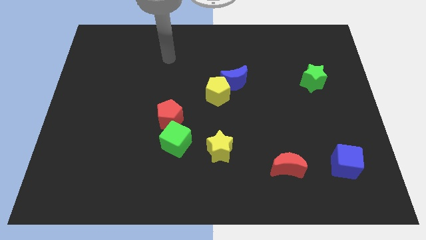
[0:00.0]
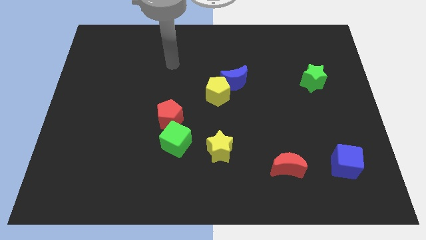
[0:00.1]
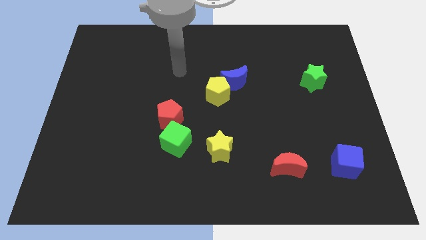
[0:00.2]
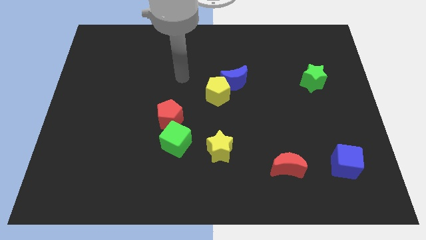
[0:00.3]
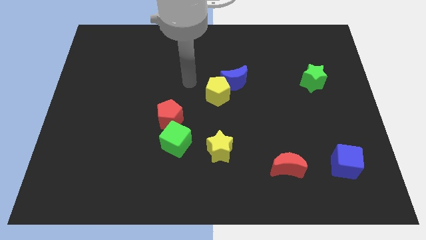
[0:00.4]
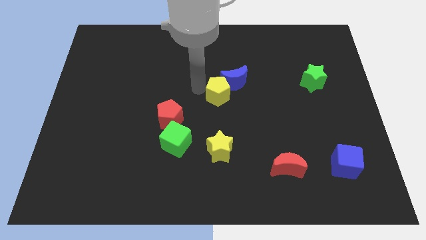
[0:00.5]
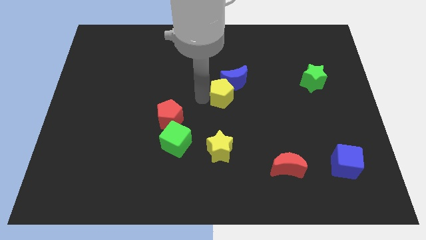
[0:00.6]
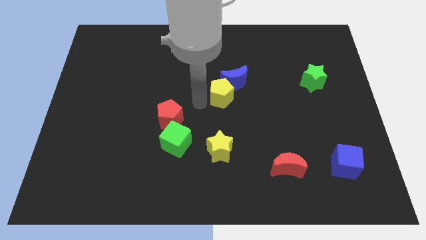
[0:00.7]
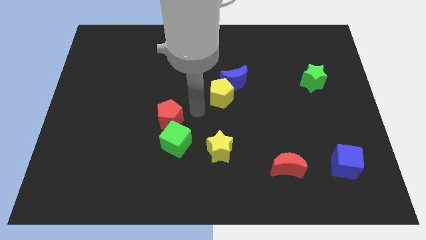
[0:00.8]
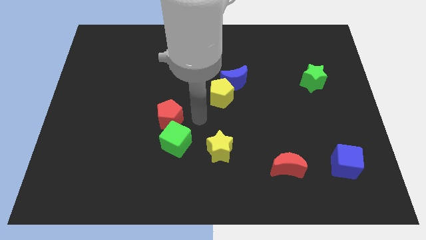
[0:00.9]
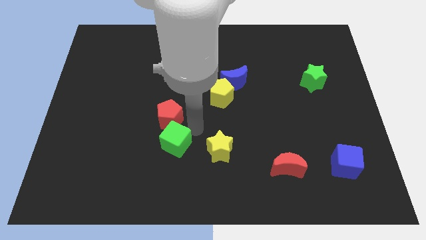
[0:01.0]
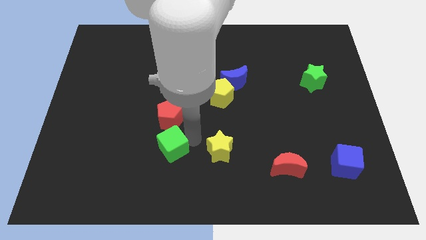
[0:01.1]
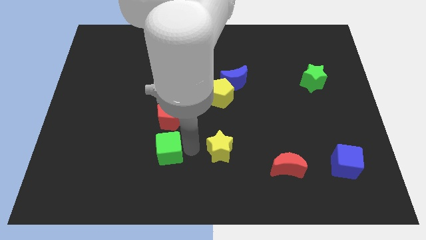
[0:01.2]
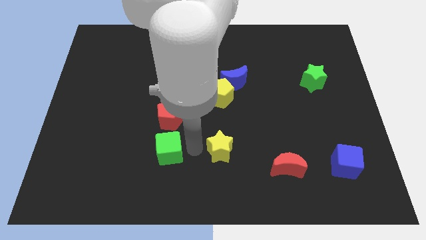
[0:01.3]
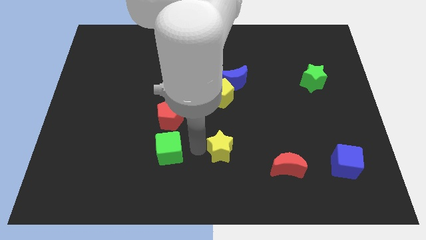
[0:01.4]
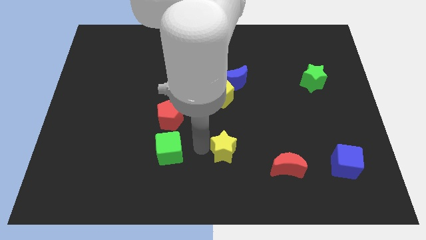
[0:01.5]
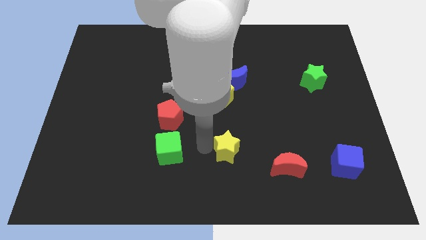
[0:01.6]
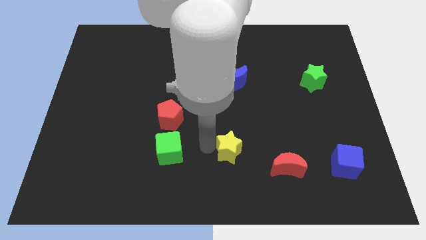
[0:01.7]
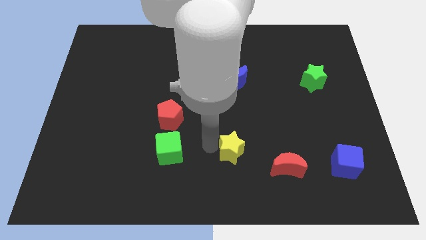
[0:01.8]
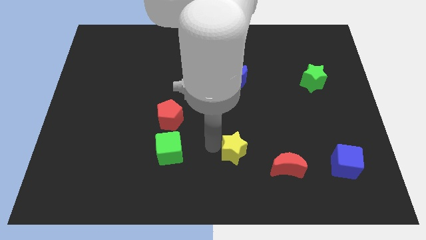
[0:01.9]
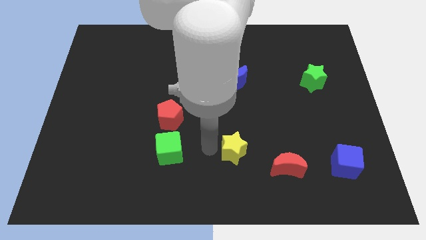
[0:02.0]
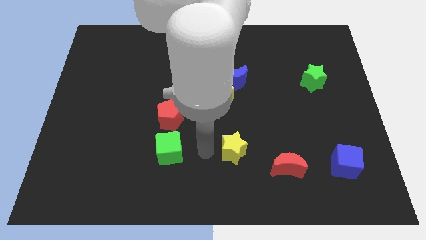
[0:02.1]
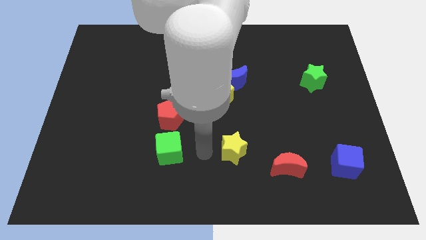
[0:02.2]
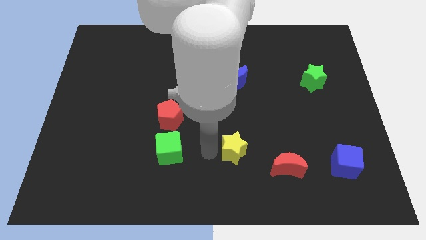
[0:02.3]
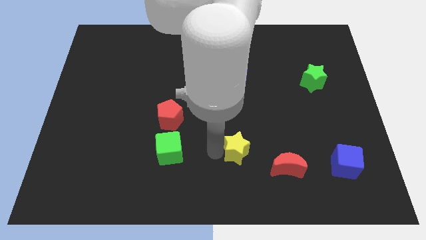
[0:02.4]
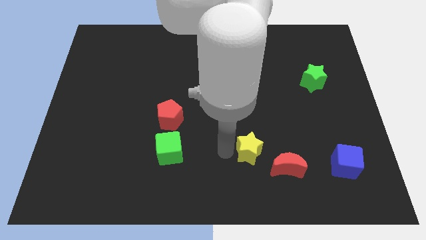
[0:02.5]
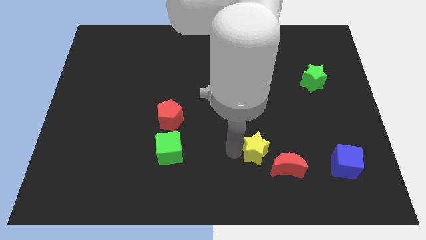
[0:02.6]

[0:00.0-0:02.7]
slightly move the yellow star to the right

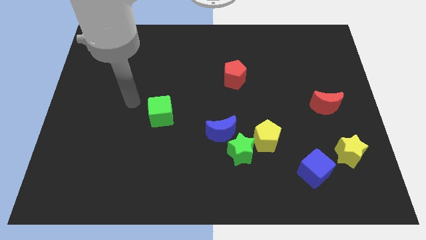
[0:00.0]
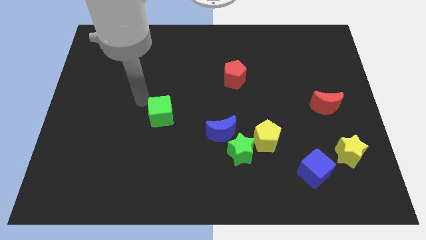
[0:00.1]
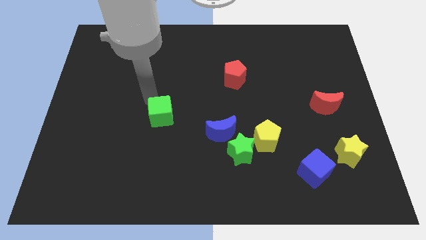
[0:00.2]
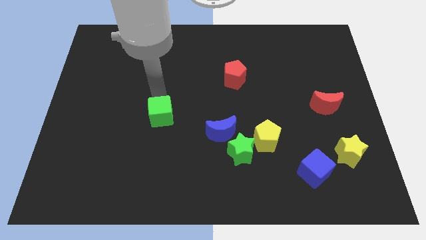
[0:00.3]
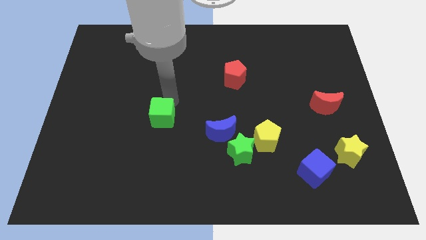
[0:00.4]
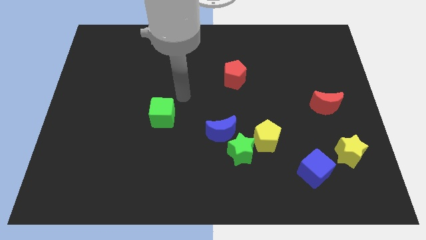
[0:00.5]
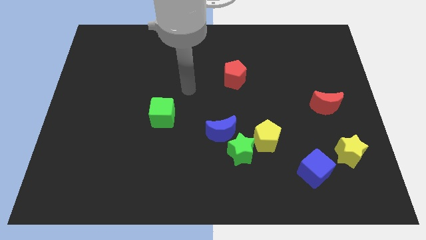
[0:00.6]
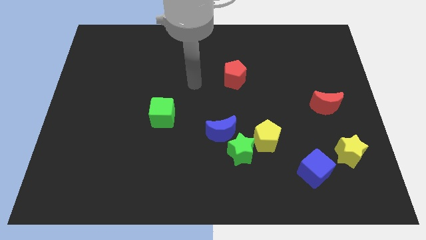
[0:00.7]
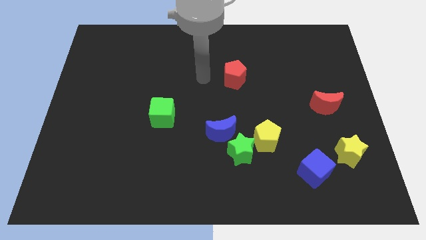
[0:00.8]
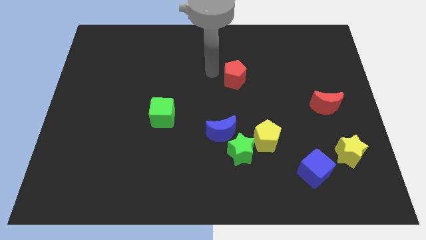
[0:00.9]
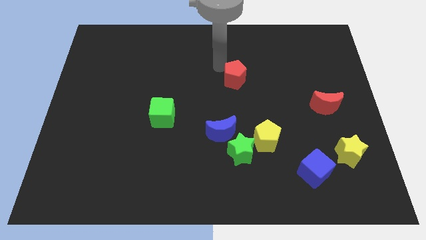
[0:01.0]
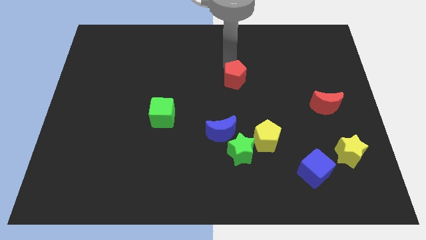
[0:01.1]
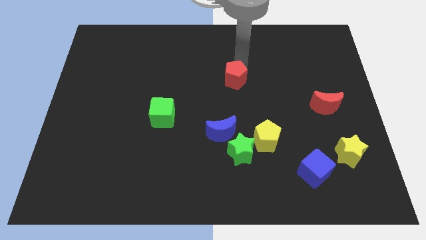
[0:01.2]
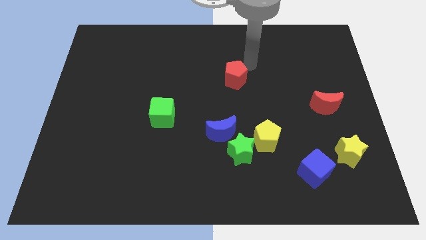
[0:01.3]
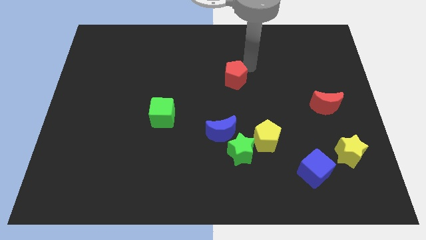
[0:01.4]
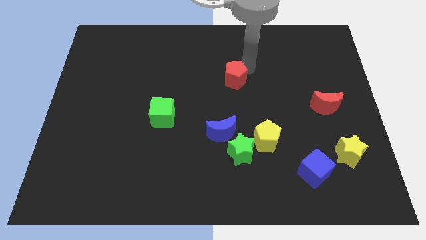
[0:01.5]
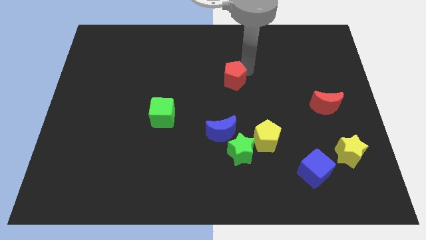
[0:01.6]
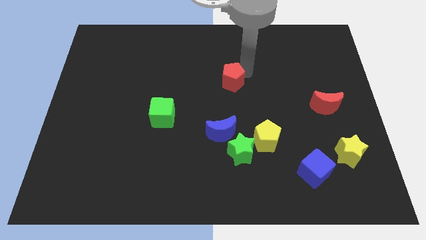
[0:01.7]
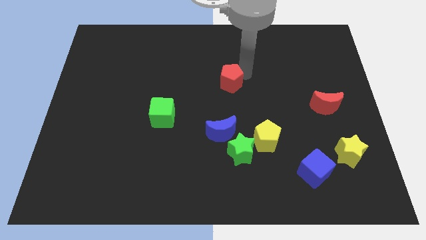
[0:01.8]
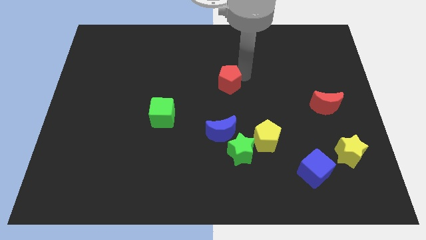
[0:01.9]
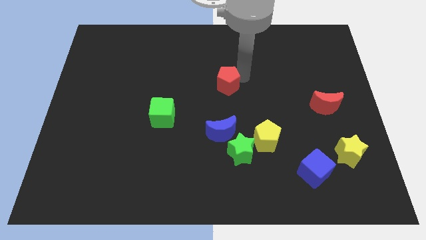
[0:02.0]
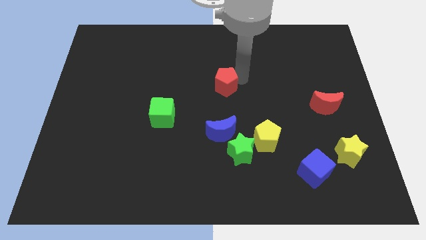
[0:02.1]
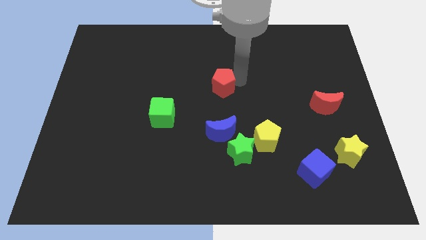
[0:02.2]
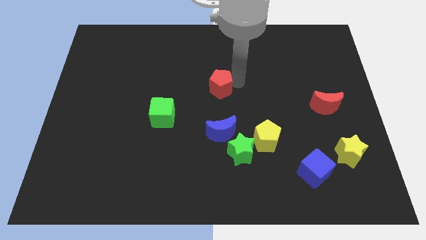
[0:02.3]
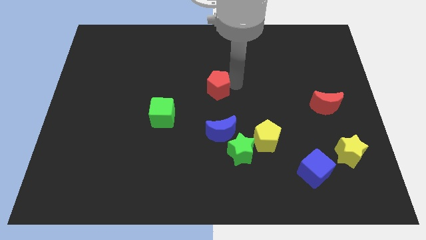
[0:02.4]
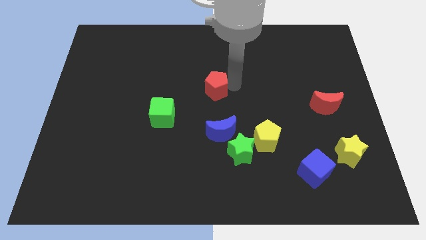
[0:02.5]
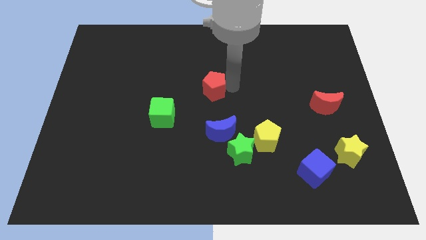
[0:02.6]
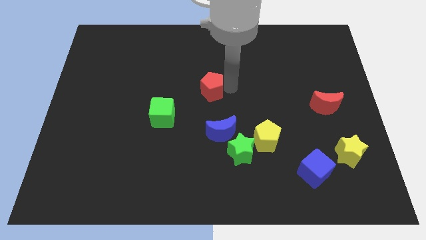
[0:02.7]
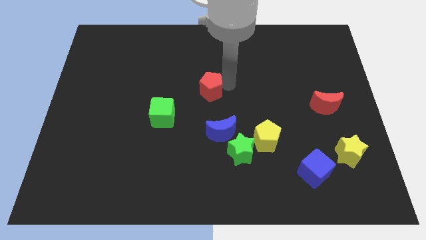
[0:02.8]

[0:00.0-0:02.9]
push the red pentagon down and then left a little bit

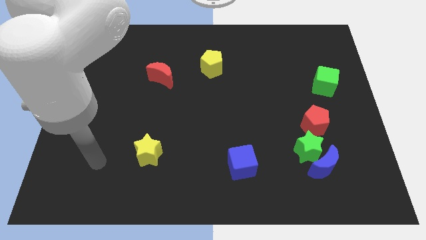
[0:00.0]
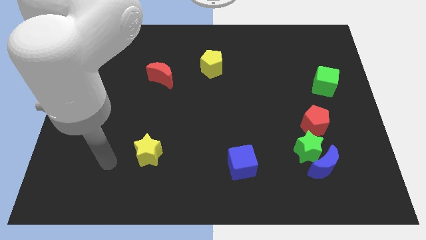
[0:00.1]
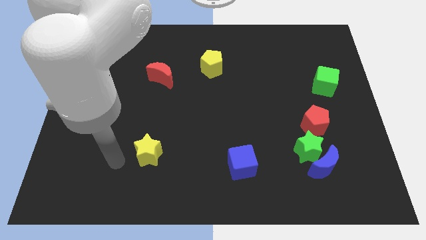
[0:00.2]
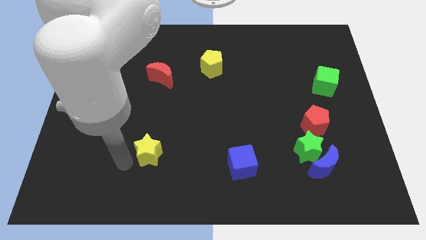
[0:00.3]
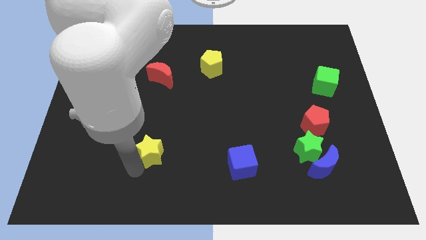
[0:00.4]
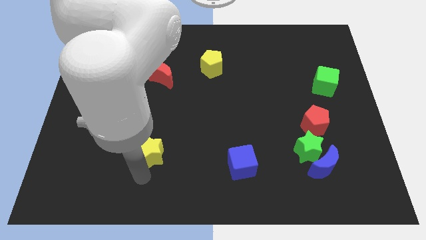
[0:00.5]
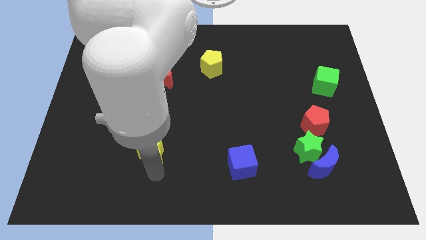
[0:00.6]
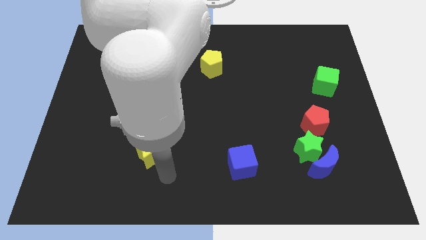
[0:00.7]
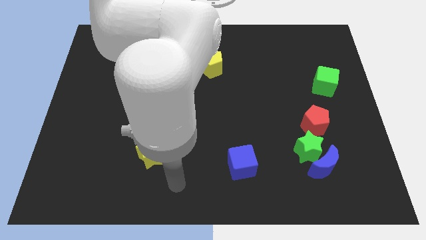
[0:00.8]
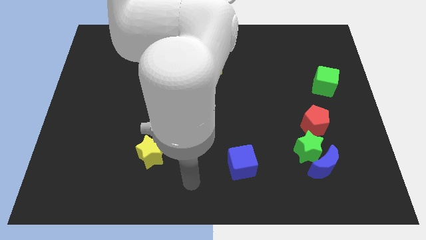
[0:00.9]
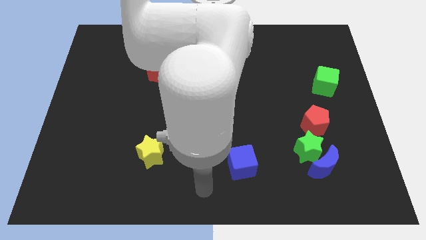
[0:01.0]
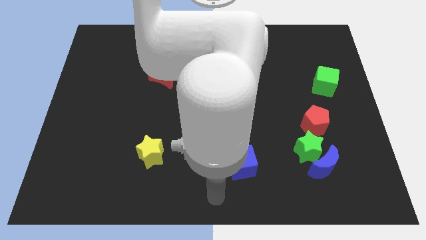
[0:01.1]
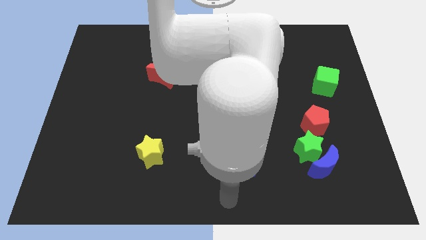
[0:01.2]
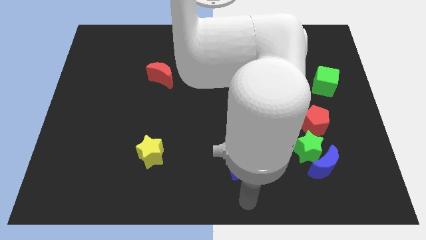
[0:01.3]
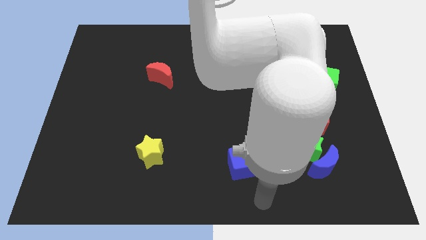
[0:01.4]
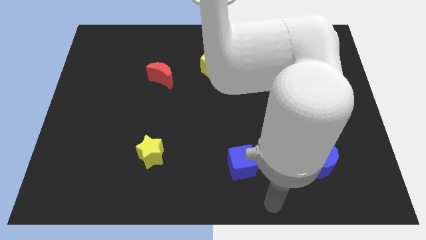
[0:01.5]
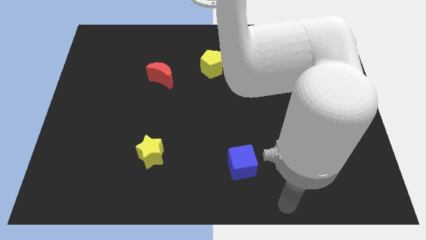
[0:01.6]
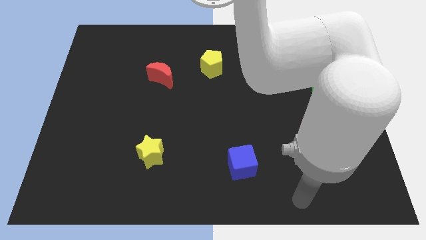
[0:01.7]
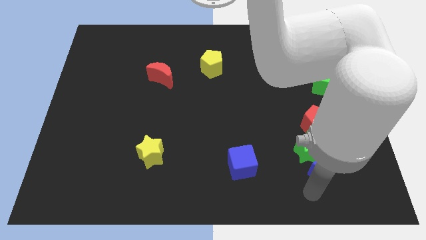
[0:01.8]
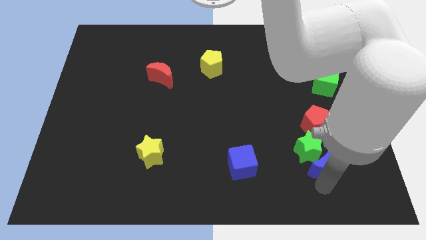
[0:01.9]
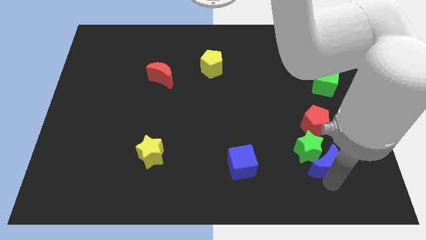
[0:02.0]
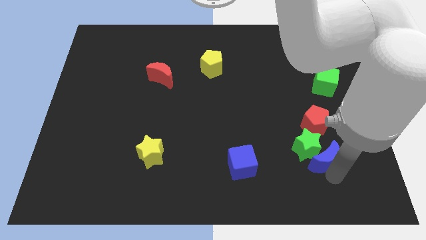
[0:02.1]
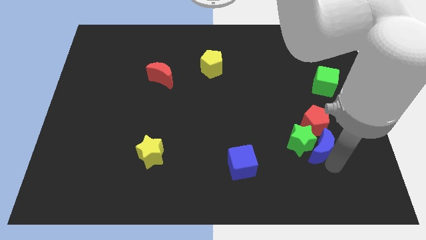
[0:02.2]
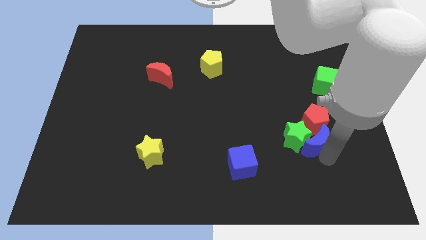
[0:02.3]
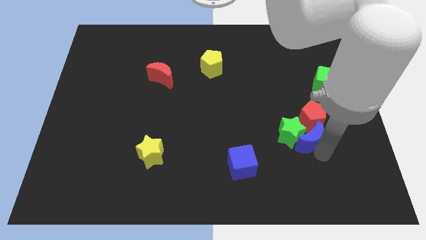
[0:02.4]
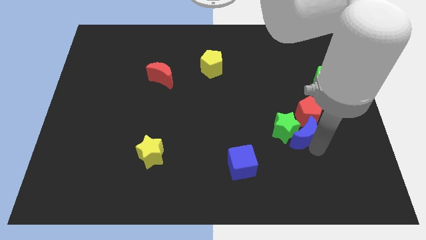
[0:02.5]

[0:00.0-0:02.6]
move the green star diagonally up and left a bit
